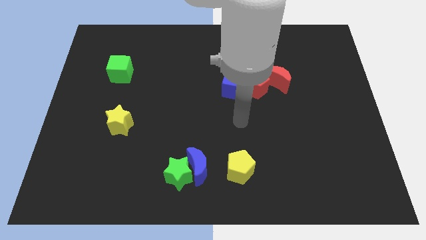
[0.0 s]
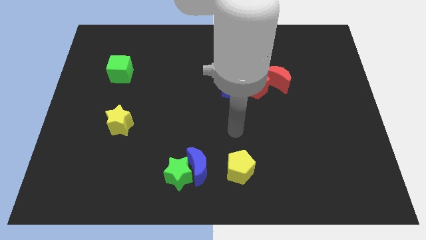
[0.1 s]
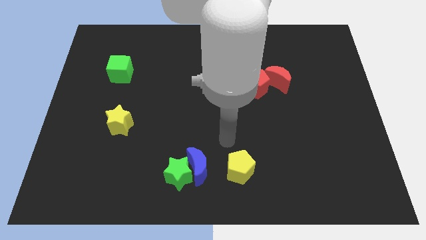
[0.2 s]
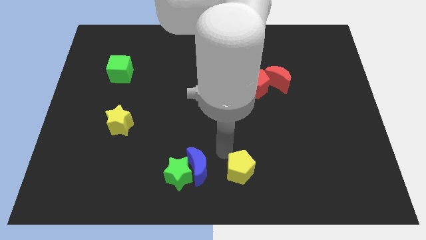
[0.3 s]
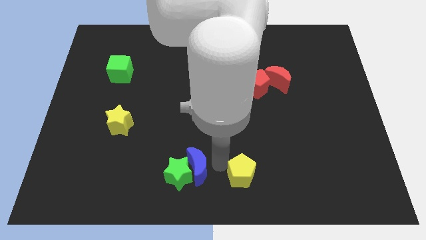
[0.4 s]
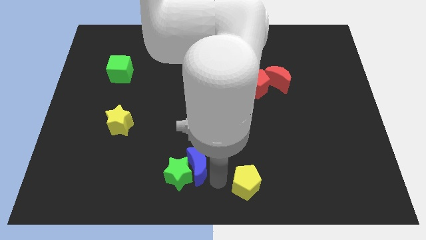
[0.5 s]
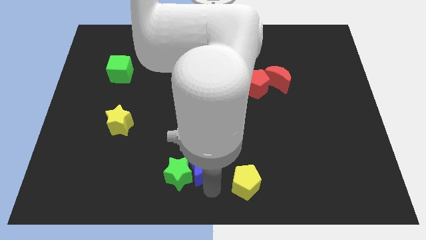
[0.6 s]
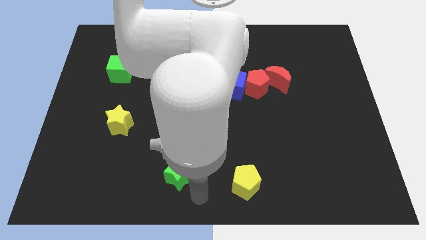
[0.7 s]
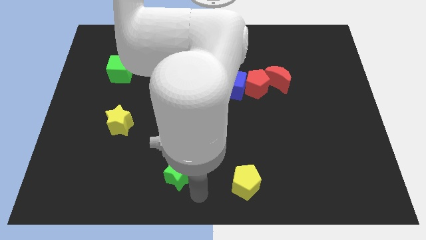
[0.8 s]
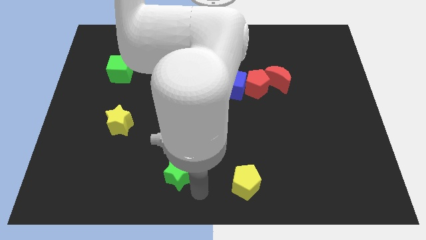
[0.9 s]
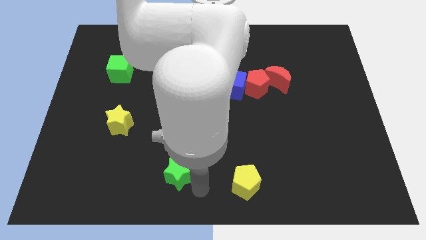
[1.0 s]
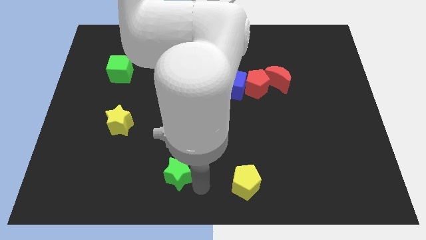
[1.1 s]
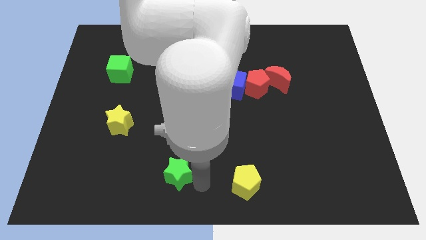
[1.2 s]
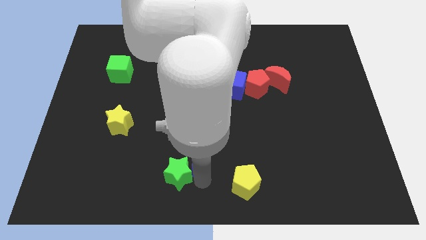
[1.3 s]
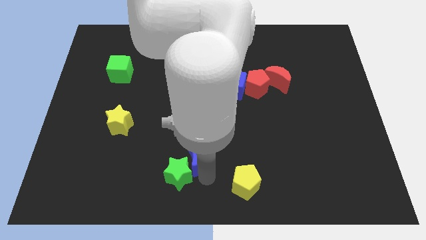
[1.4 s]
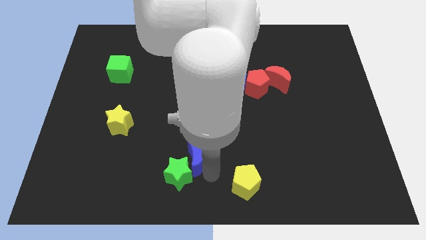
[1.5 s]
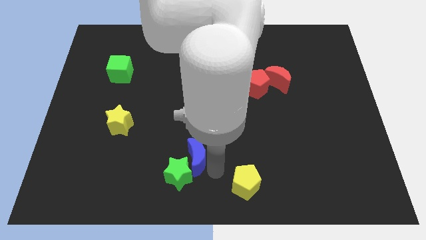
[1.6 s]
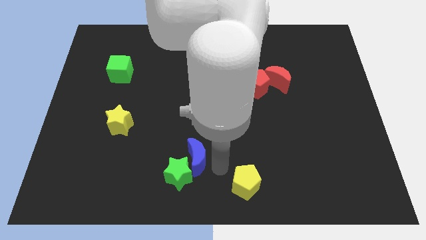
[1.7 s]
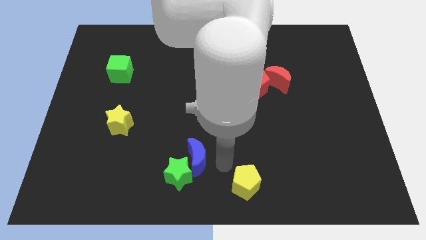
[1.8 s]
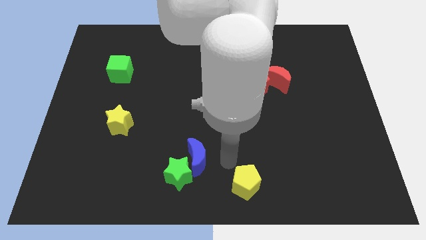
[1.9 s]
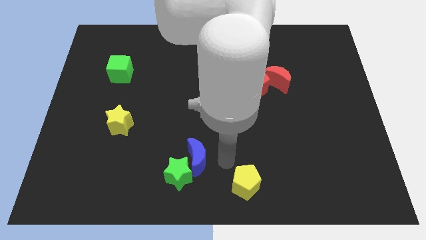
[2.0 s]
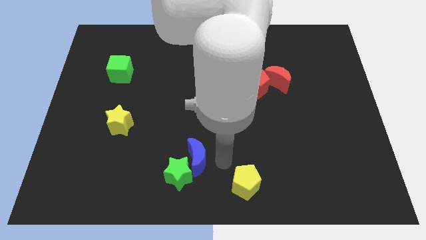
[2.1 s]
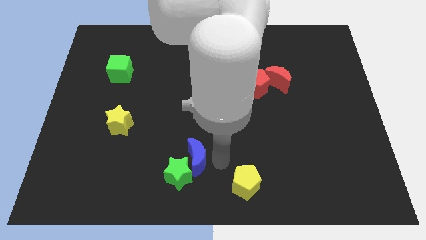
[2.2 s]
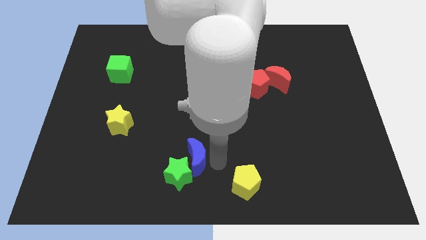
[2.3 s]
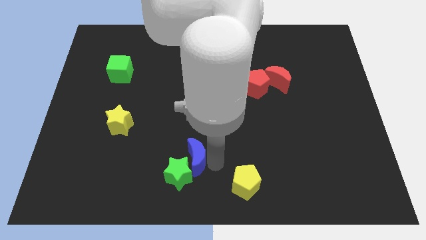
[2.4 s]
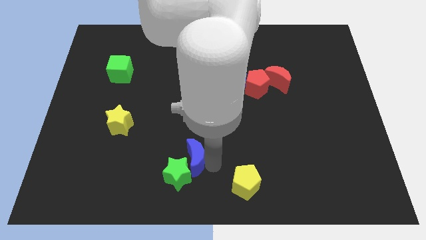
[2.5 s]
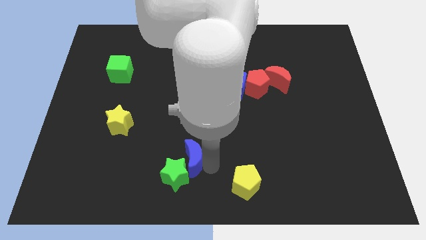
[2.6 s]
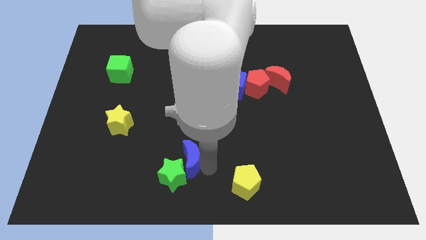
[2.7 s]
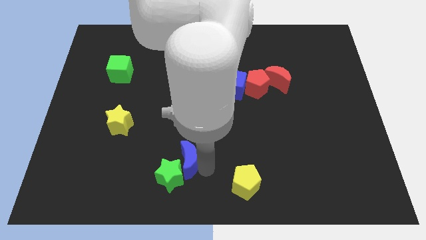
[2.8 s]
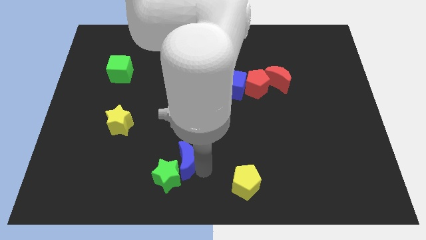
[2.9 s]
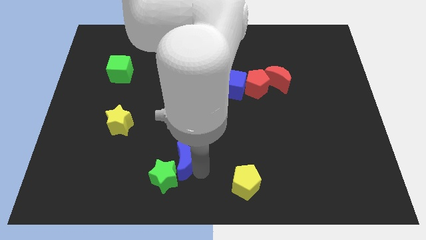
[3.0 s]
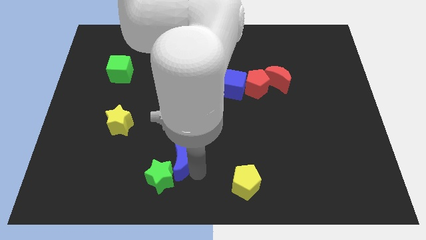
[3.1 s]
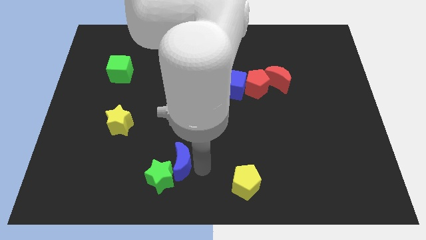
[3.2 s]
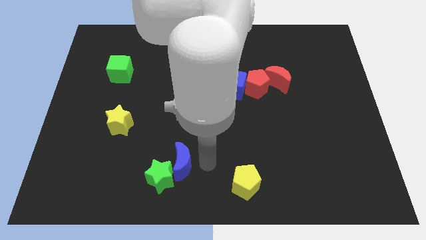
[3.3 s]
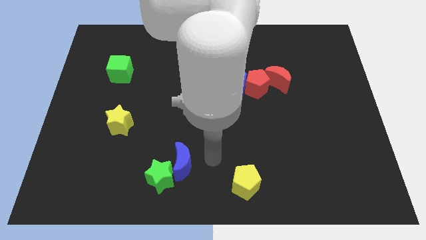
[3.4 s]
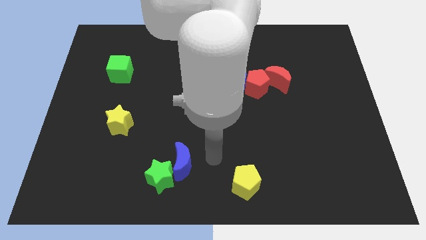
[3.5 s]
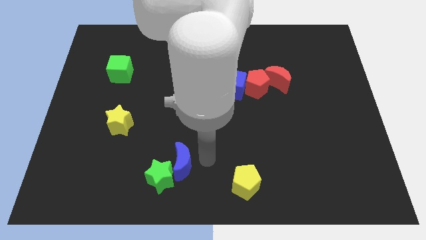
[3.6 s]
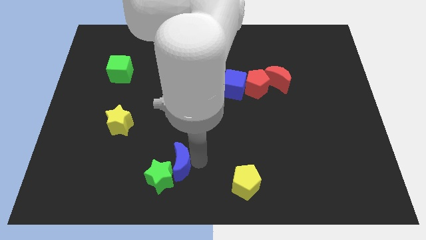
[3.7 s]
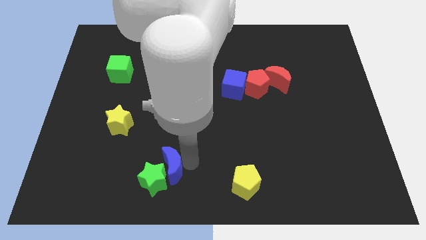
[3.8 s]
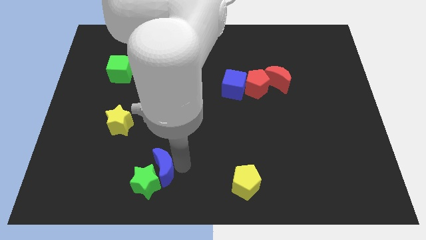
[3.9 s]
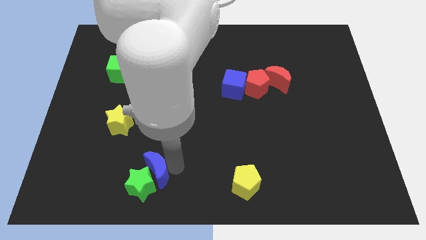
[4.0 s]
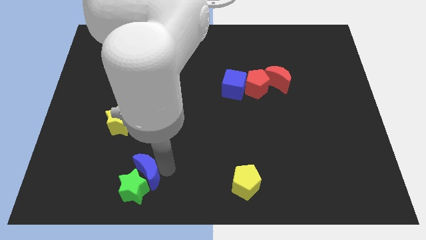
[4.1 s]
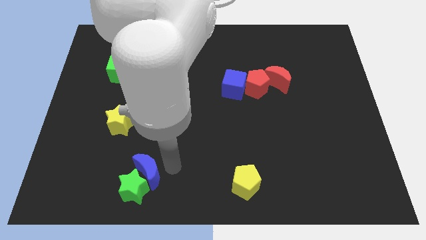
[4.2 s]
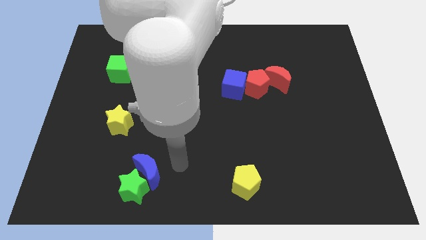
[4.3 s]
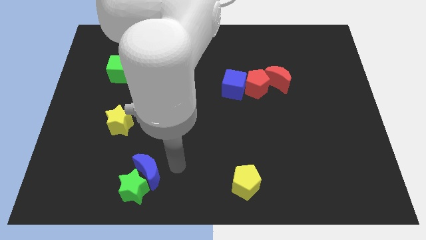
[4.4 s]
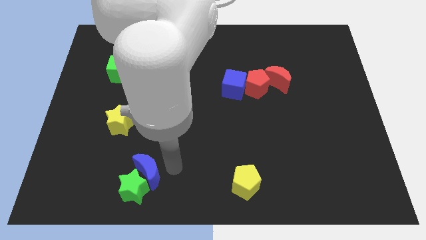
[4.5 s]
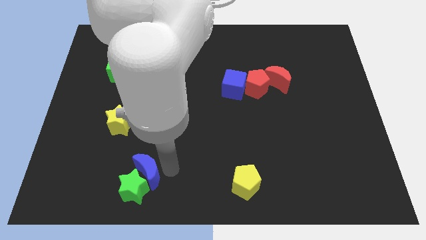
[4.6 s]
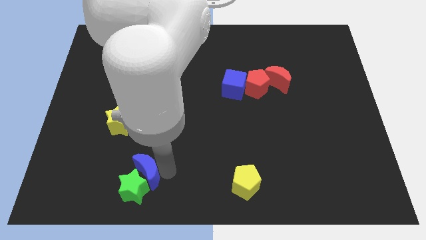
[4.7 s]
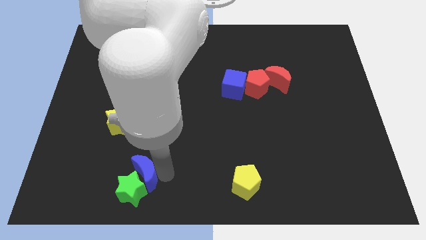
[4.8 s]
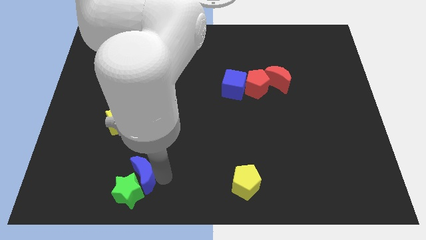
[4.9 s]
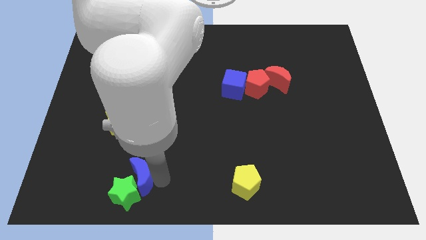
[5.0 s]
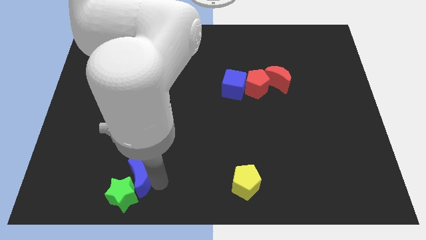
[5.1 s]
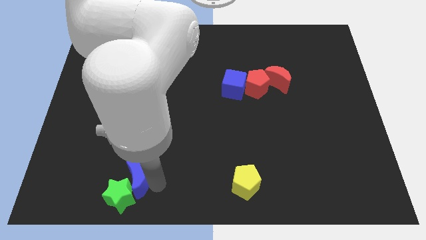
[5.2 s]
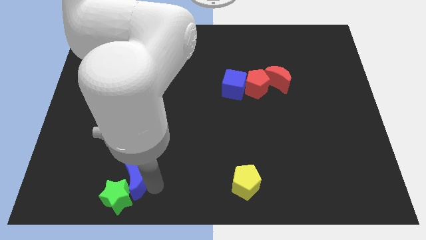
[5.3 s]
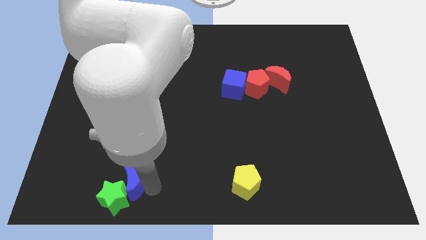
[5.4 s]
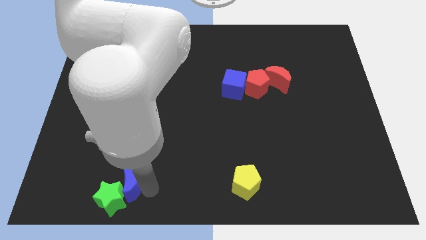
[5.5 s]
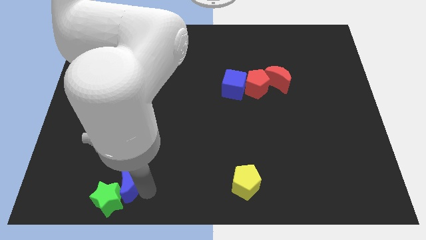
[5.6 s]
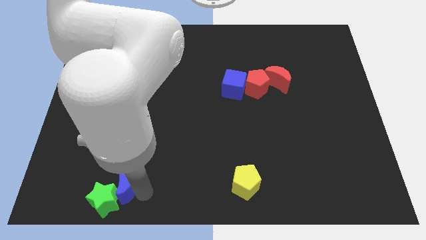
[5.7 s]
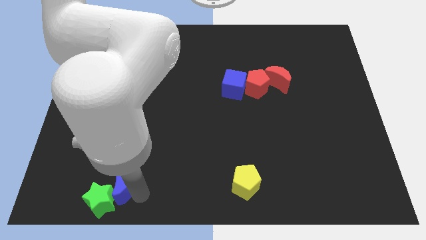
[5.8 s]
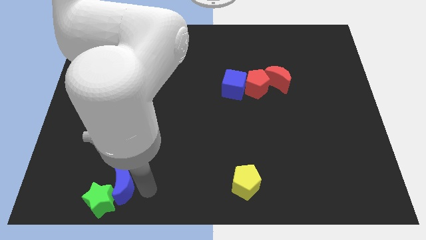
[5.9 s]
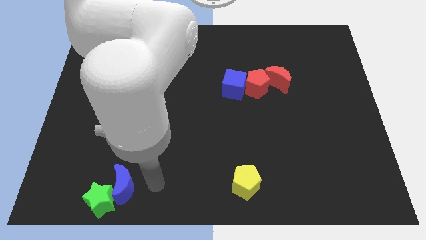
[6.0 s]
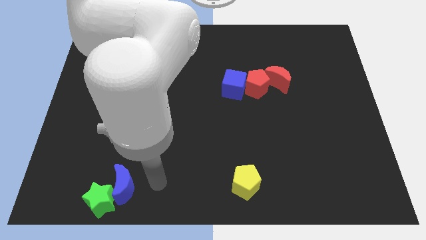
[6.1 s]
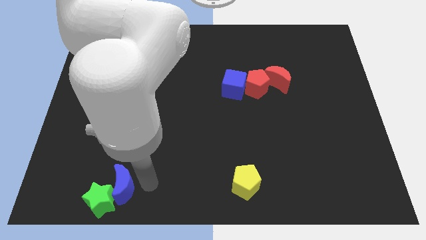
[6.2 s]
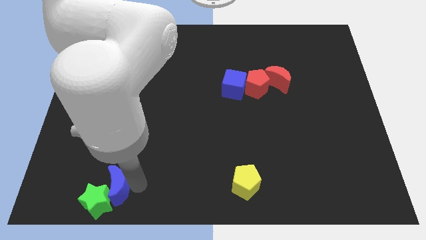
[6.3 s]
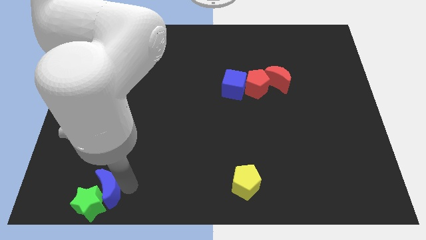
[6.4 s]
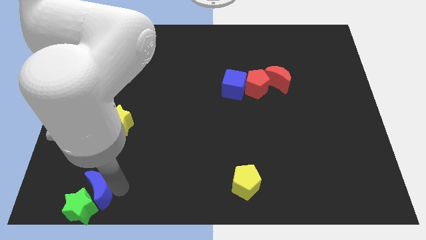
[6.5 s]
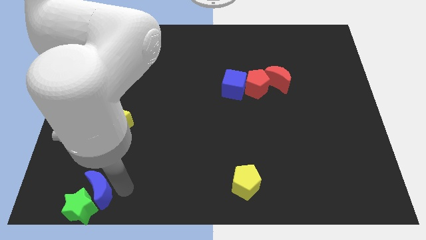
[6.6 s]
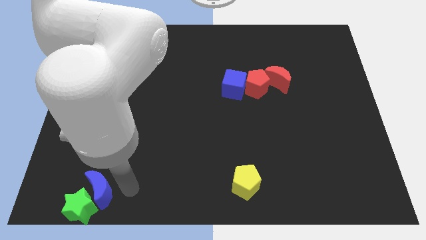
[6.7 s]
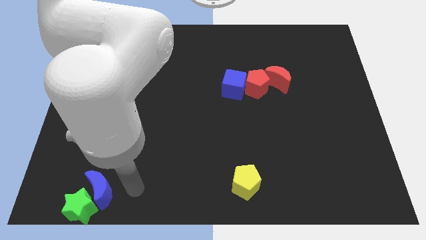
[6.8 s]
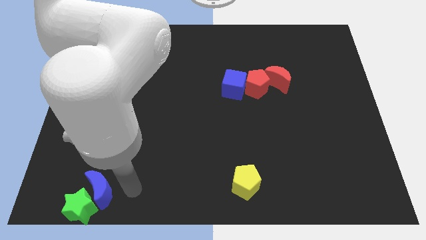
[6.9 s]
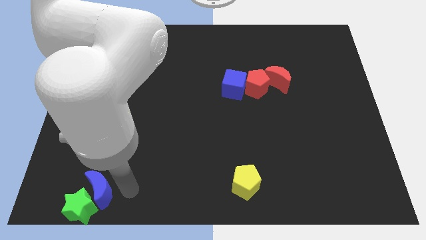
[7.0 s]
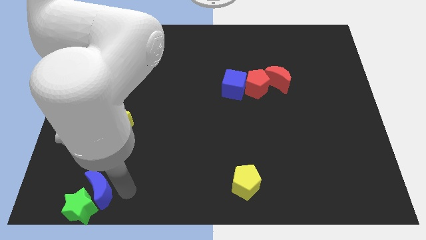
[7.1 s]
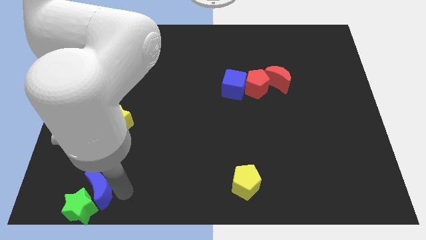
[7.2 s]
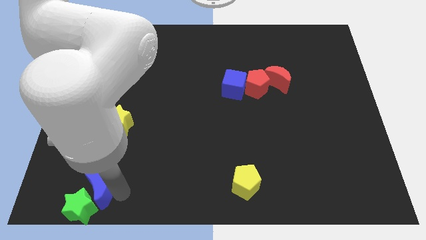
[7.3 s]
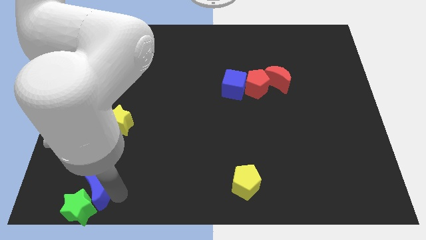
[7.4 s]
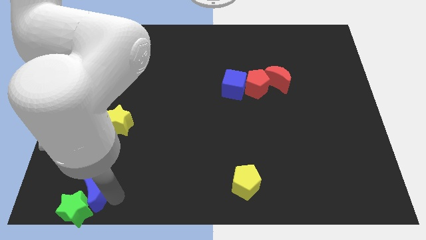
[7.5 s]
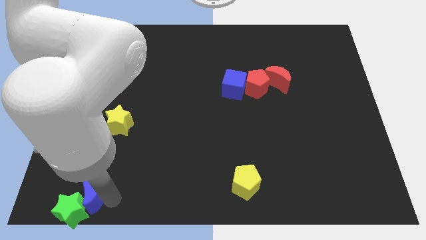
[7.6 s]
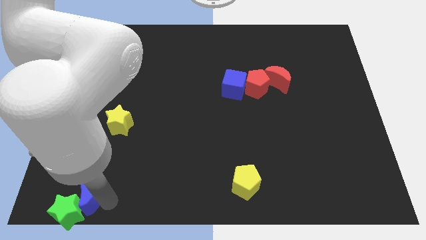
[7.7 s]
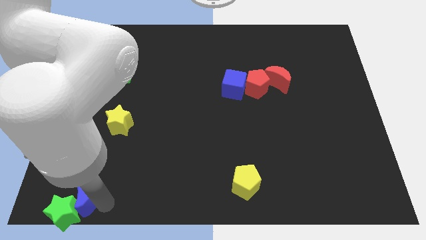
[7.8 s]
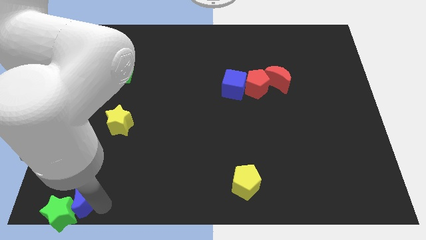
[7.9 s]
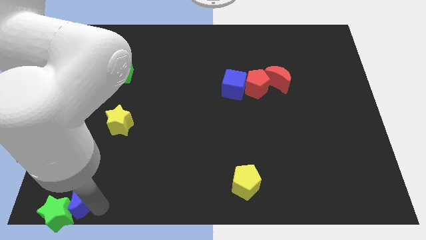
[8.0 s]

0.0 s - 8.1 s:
move the blue moon to the bottom left
